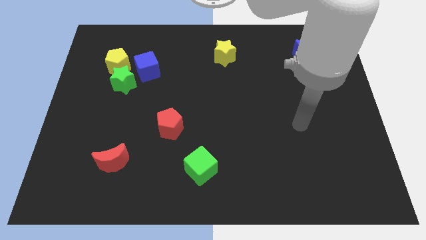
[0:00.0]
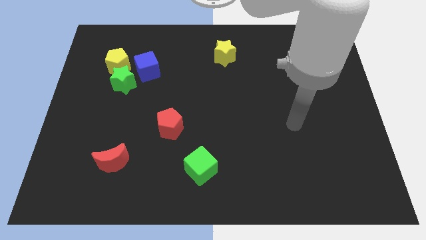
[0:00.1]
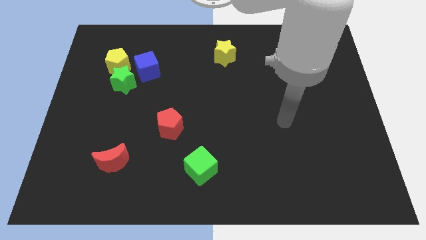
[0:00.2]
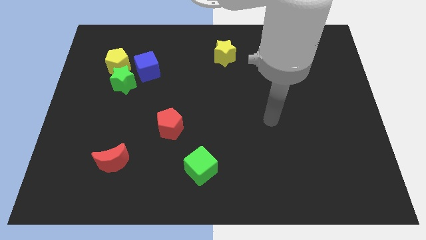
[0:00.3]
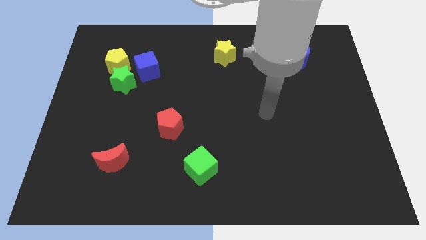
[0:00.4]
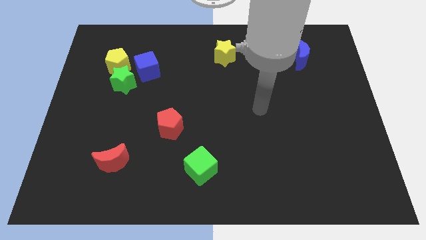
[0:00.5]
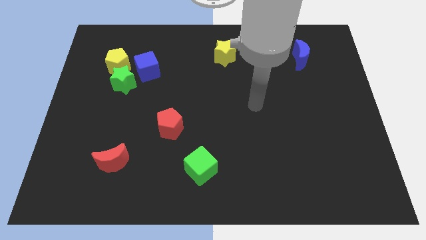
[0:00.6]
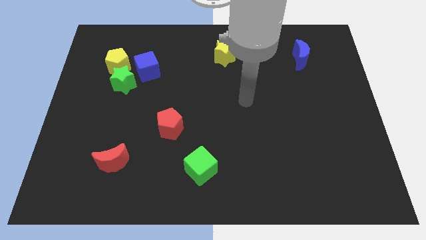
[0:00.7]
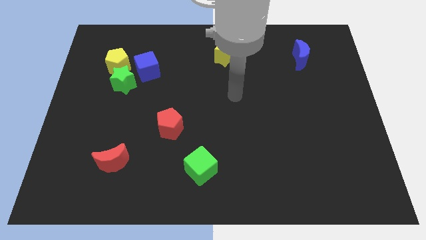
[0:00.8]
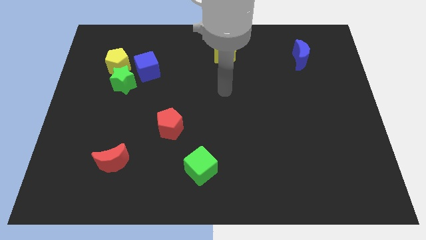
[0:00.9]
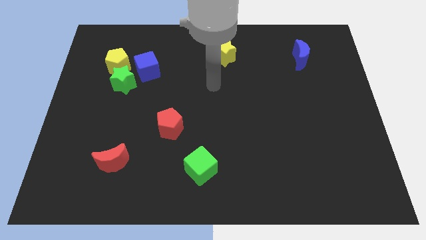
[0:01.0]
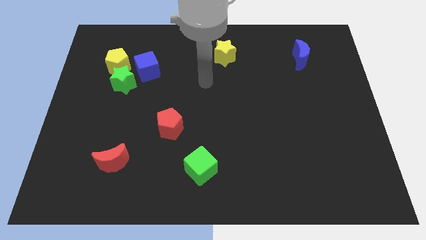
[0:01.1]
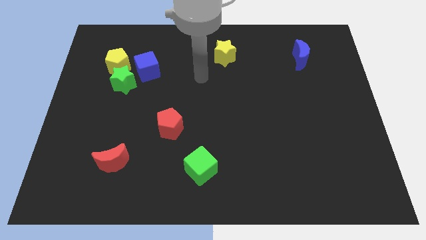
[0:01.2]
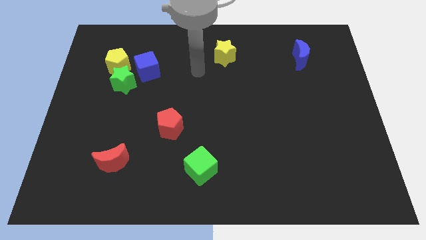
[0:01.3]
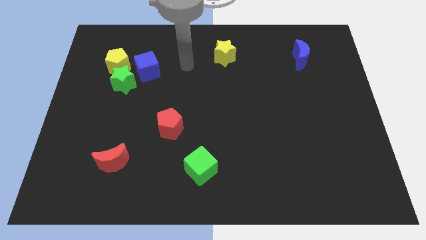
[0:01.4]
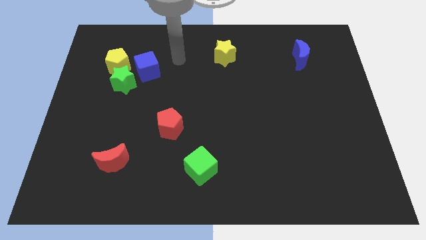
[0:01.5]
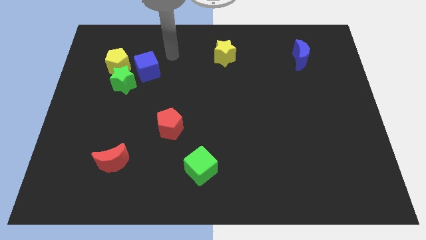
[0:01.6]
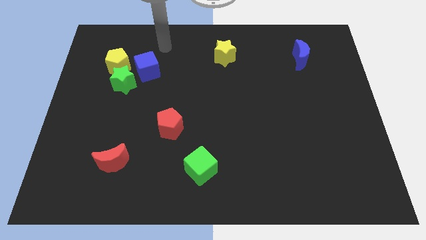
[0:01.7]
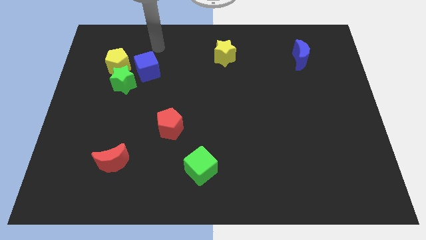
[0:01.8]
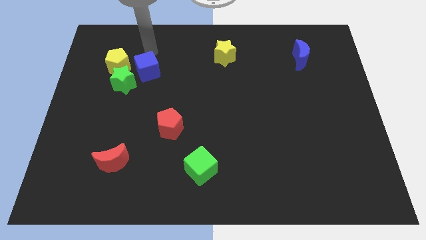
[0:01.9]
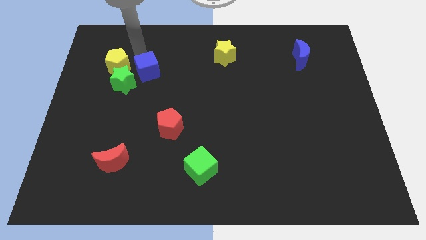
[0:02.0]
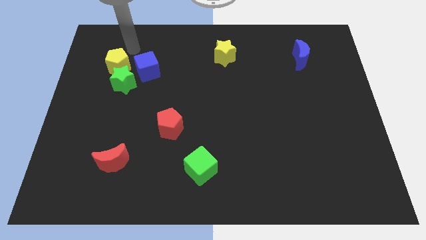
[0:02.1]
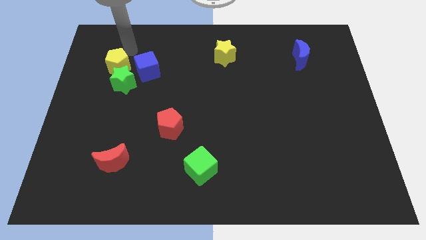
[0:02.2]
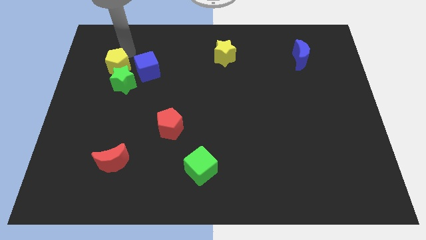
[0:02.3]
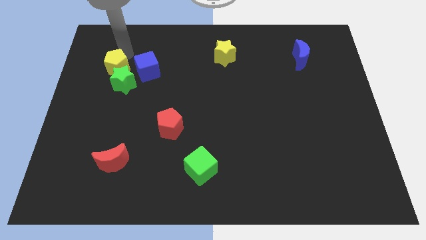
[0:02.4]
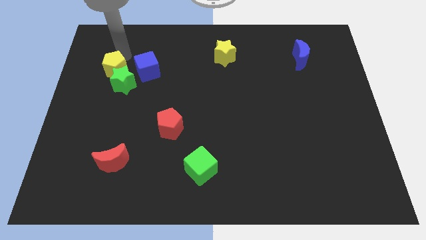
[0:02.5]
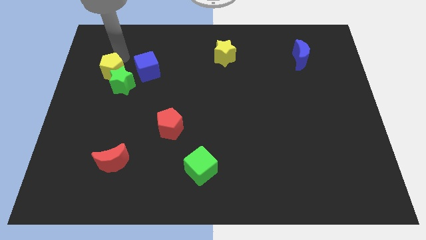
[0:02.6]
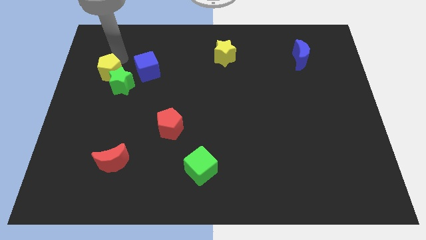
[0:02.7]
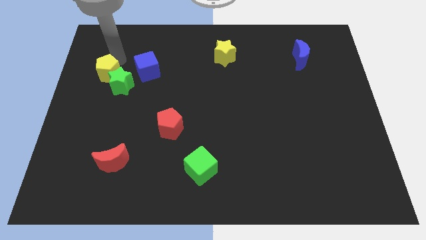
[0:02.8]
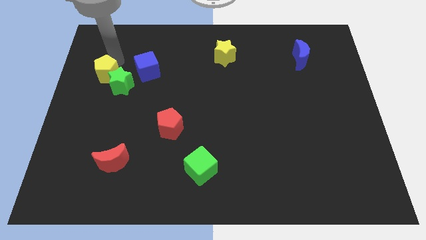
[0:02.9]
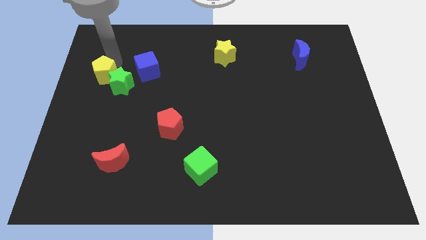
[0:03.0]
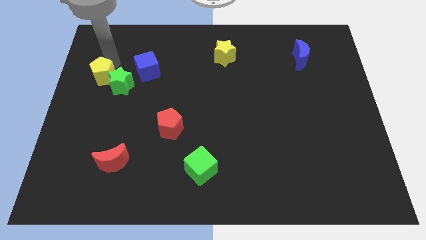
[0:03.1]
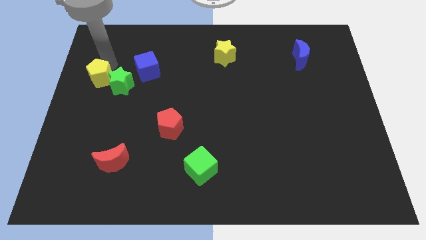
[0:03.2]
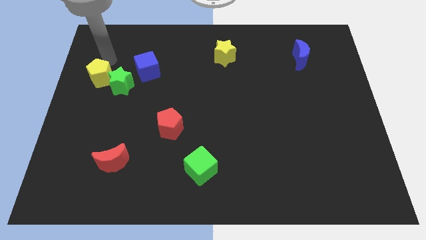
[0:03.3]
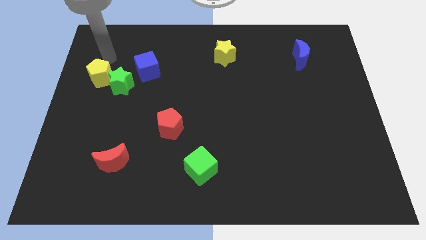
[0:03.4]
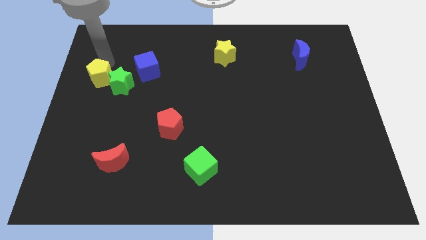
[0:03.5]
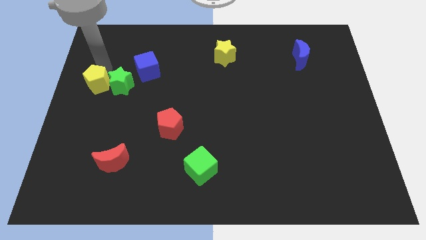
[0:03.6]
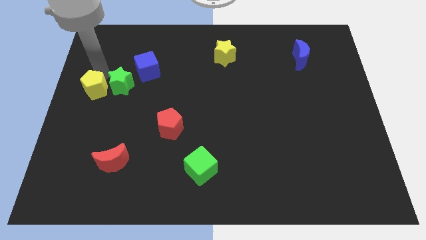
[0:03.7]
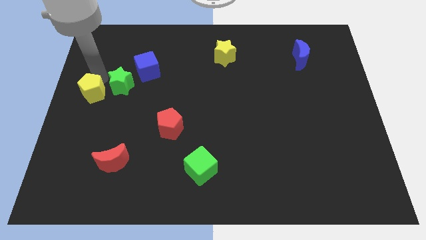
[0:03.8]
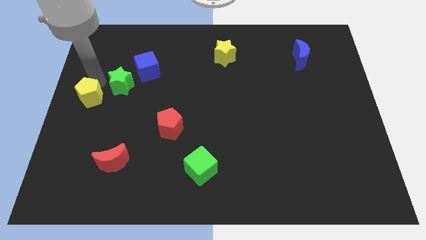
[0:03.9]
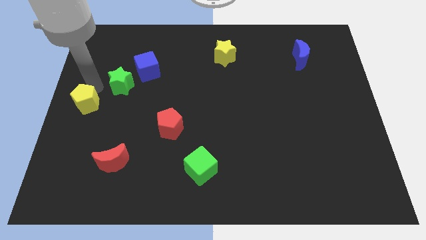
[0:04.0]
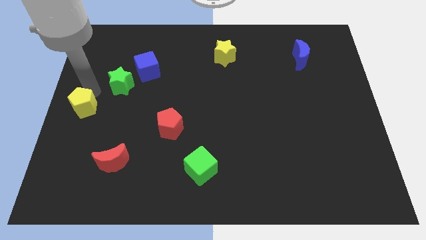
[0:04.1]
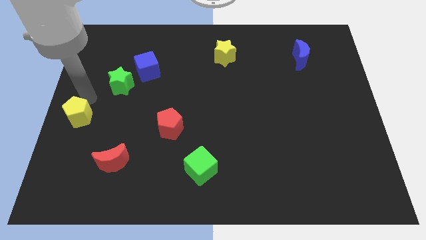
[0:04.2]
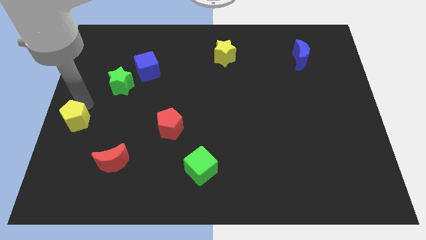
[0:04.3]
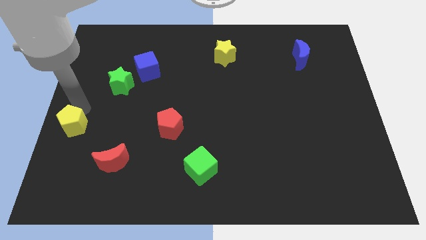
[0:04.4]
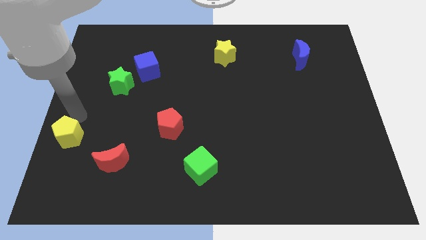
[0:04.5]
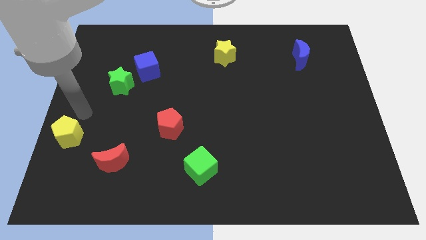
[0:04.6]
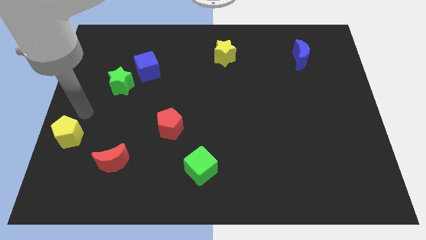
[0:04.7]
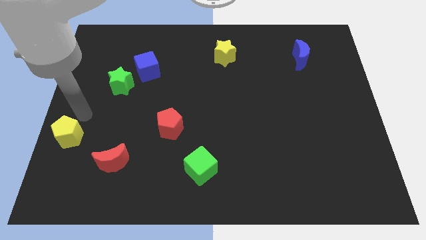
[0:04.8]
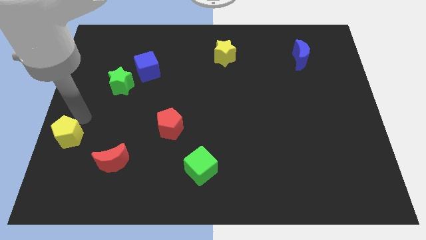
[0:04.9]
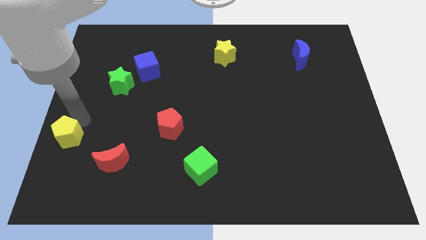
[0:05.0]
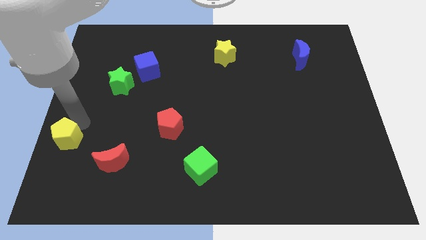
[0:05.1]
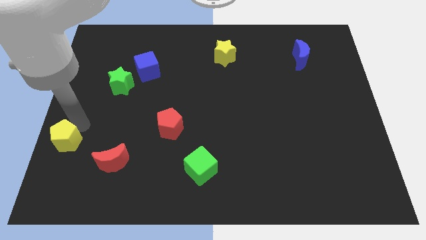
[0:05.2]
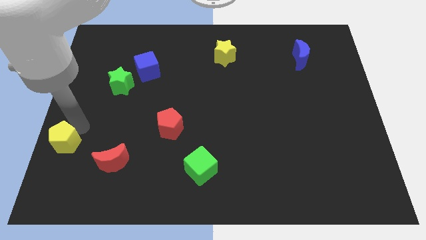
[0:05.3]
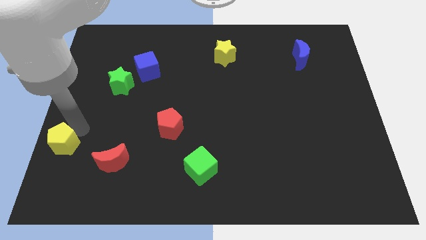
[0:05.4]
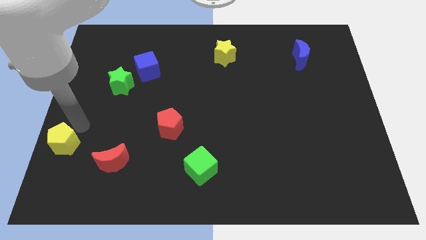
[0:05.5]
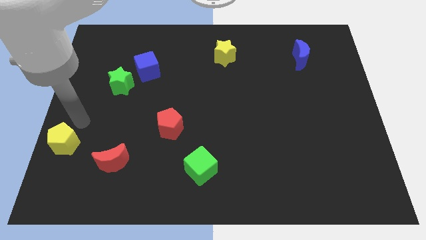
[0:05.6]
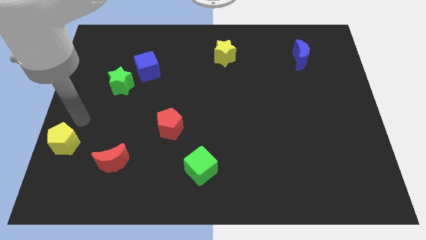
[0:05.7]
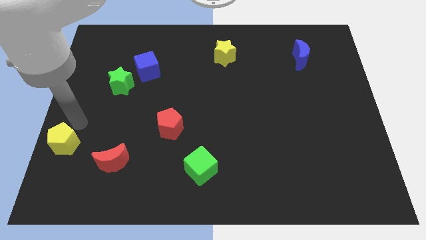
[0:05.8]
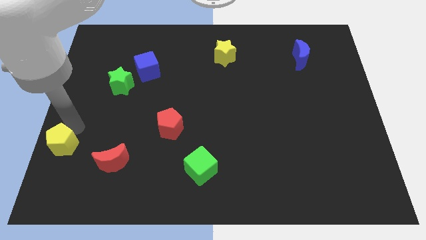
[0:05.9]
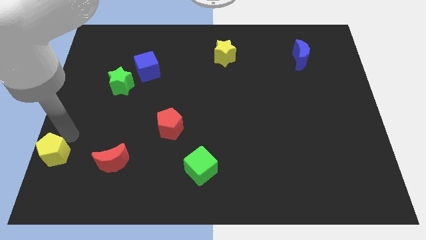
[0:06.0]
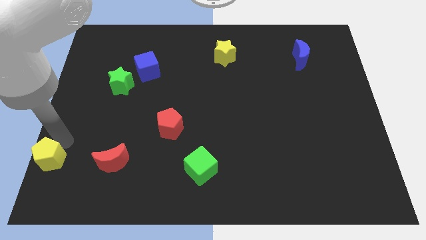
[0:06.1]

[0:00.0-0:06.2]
put the yellow pentagon to the bottom left
